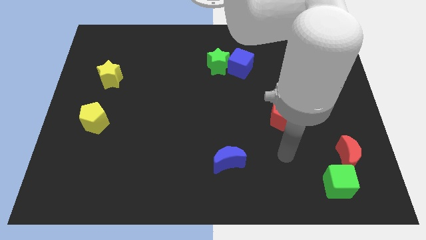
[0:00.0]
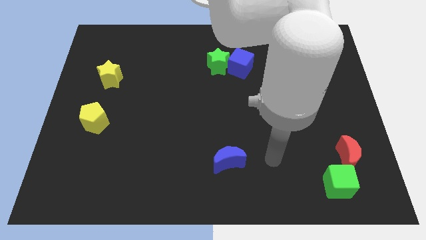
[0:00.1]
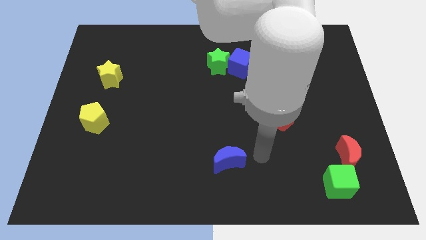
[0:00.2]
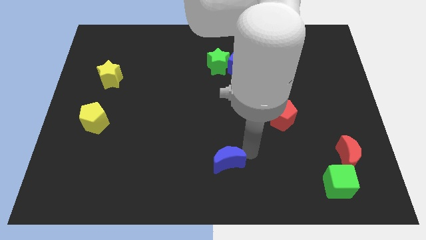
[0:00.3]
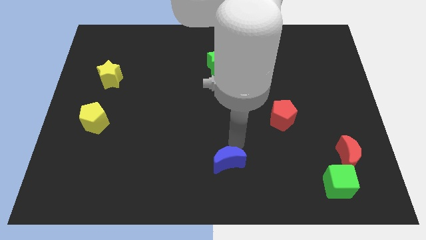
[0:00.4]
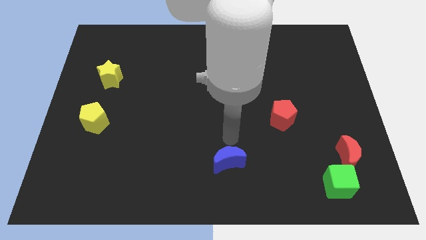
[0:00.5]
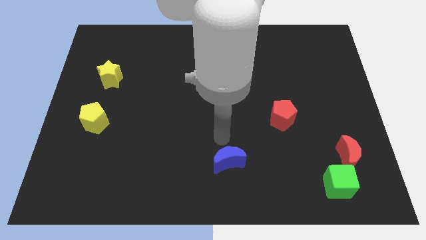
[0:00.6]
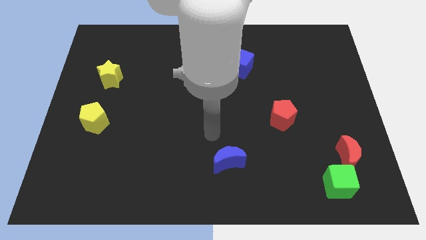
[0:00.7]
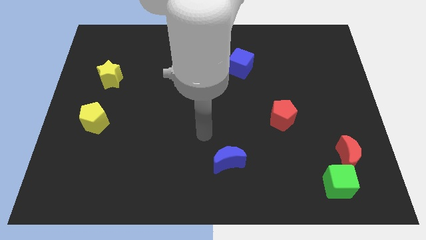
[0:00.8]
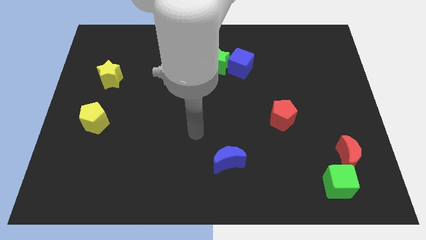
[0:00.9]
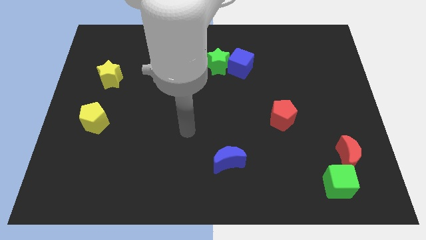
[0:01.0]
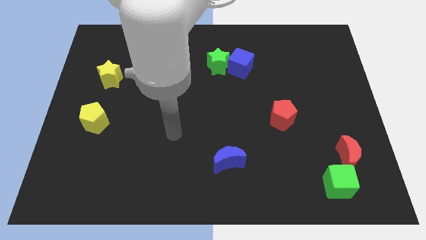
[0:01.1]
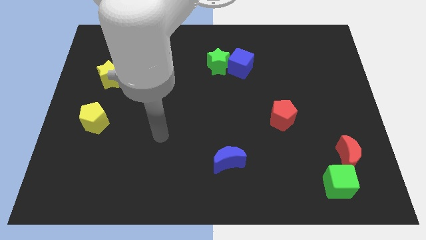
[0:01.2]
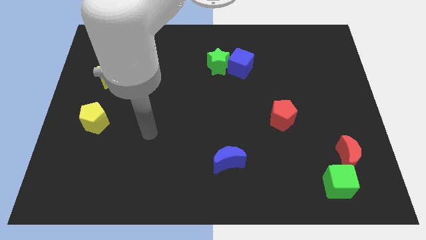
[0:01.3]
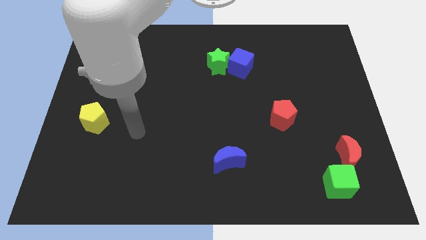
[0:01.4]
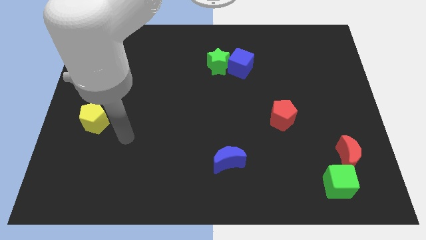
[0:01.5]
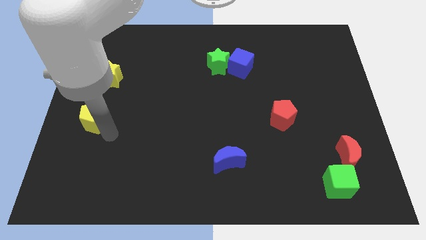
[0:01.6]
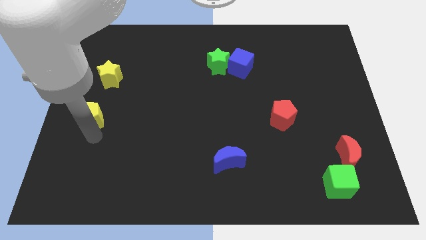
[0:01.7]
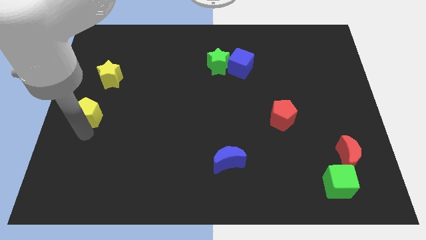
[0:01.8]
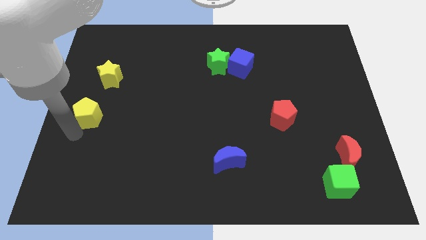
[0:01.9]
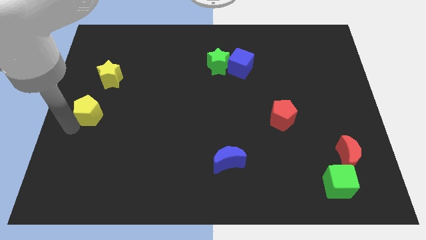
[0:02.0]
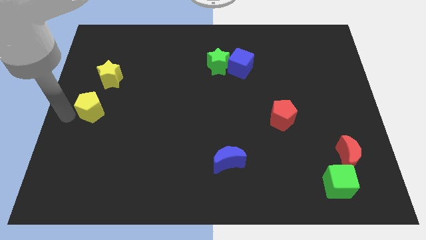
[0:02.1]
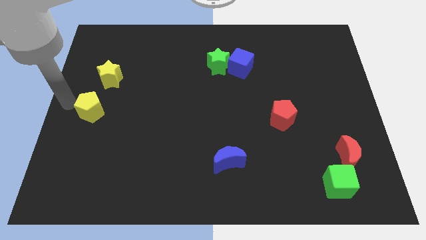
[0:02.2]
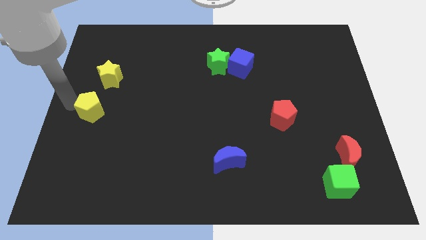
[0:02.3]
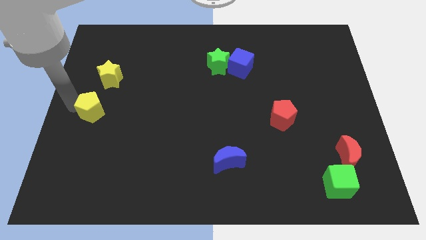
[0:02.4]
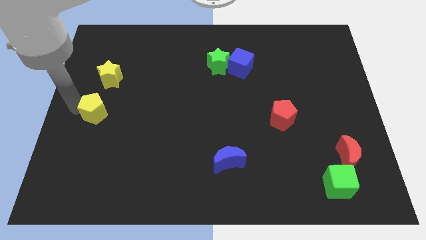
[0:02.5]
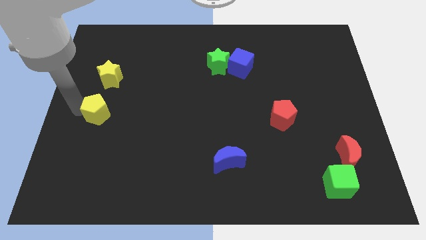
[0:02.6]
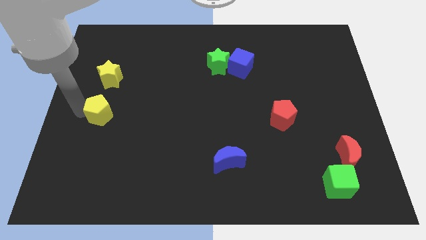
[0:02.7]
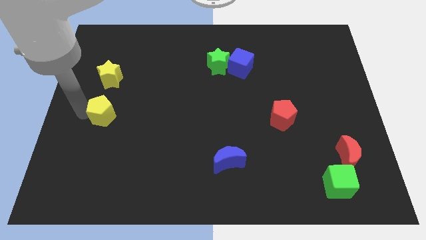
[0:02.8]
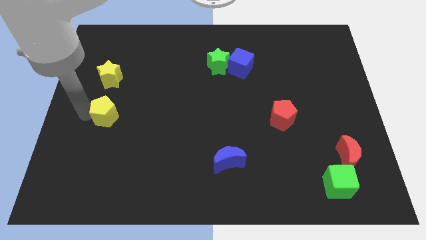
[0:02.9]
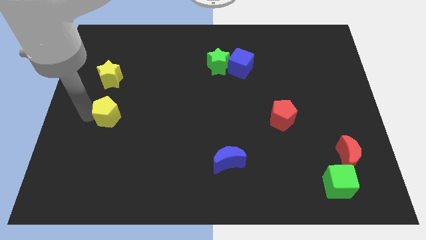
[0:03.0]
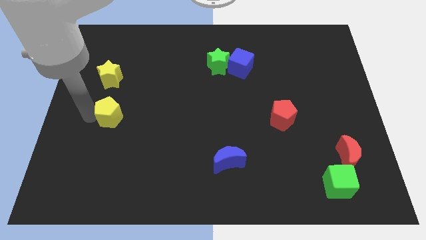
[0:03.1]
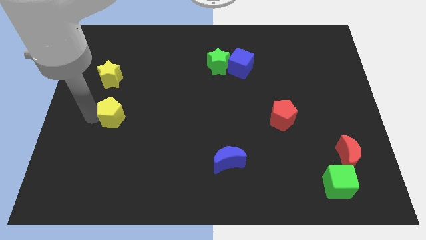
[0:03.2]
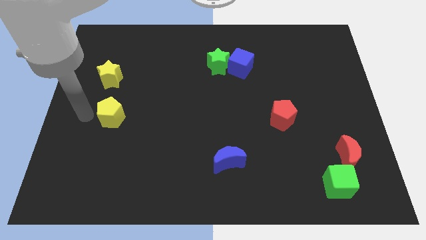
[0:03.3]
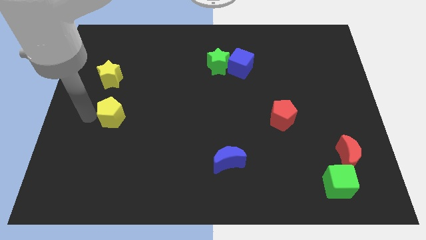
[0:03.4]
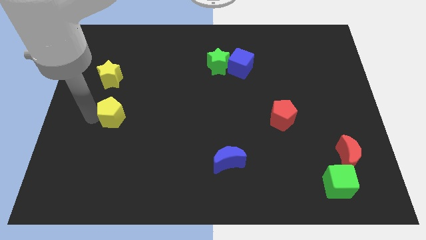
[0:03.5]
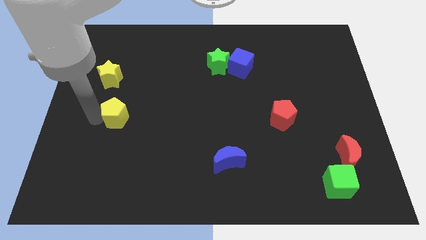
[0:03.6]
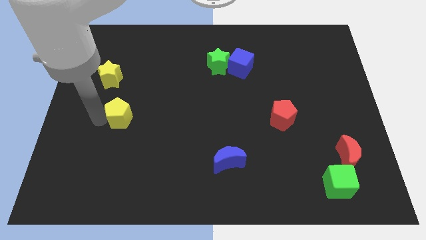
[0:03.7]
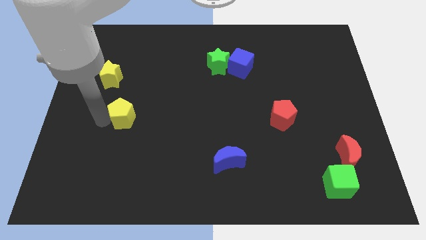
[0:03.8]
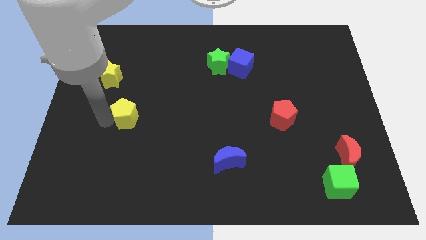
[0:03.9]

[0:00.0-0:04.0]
push the yellow pentagon to the right a little bit

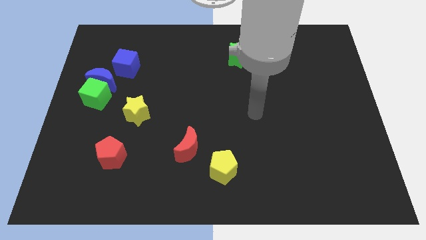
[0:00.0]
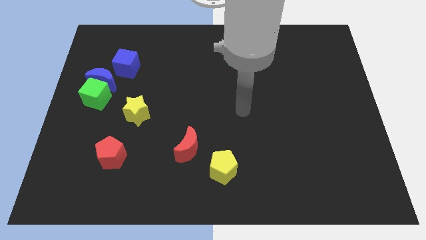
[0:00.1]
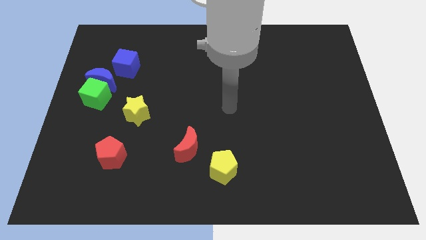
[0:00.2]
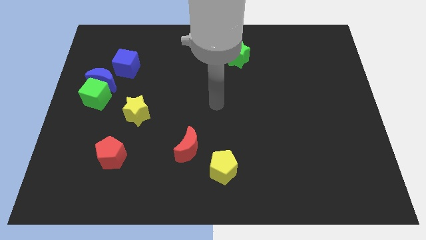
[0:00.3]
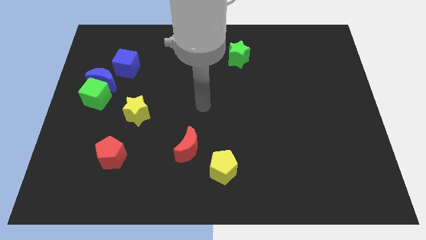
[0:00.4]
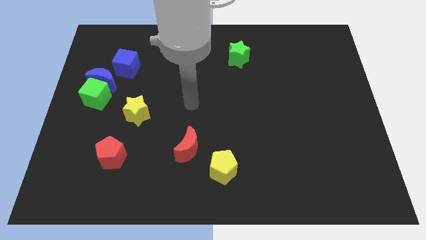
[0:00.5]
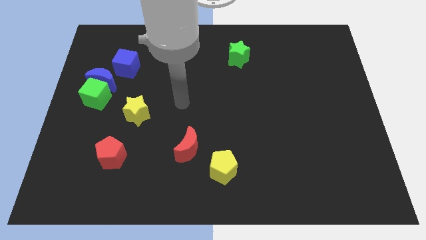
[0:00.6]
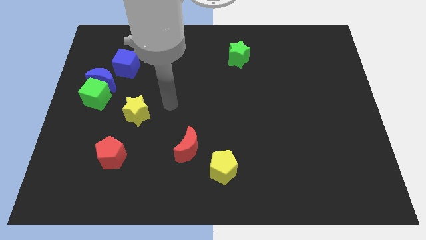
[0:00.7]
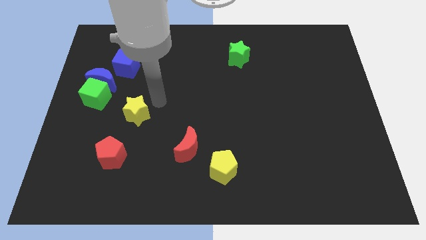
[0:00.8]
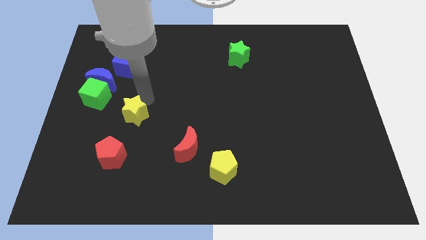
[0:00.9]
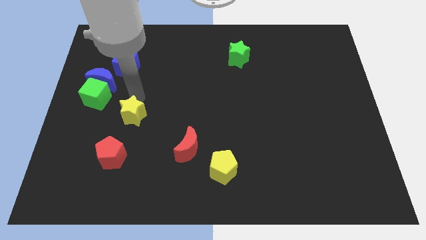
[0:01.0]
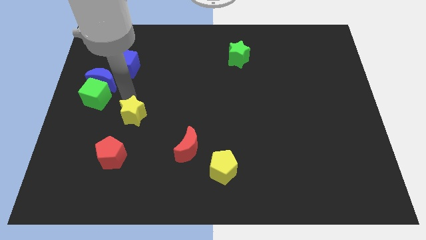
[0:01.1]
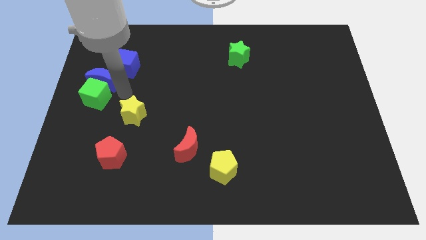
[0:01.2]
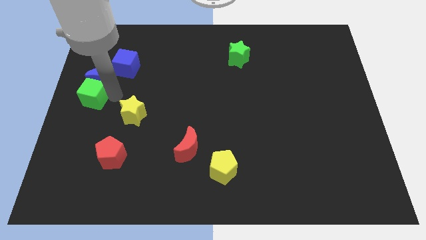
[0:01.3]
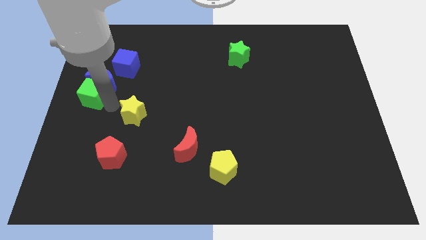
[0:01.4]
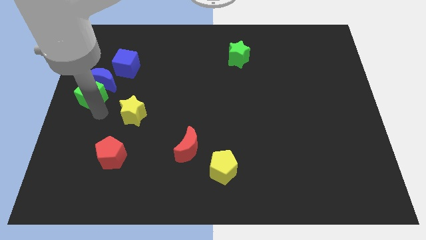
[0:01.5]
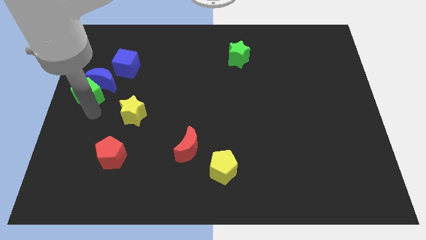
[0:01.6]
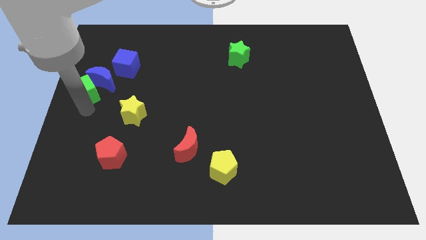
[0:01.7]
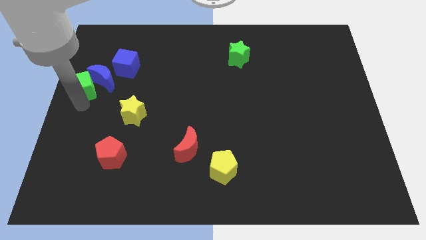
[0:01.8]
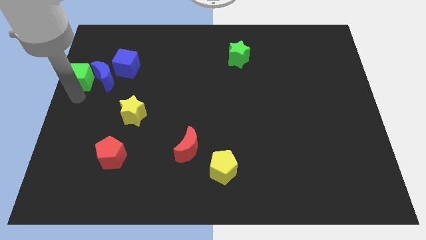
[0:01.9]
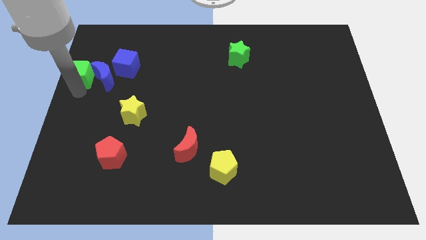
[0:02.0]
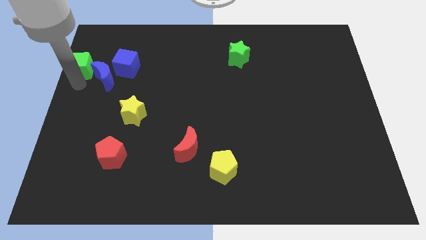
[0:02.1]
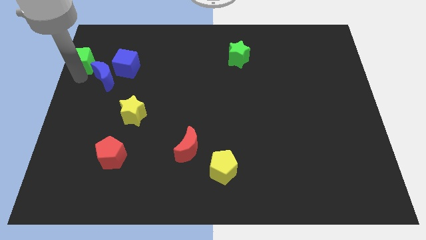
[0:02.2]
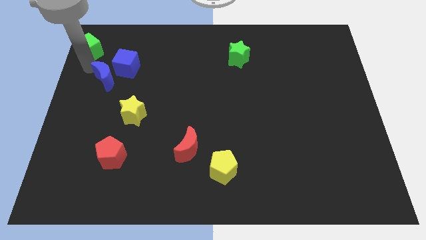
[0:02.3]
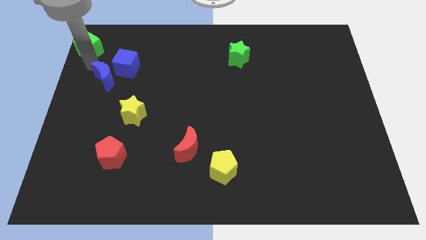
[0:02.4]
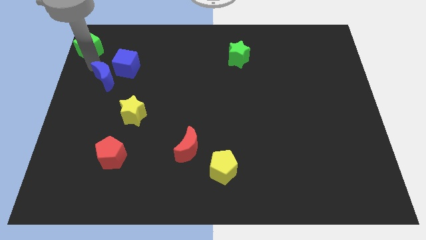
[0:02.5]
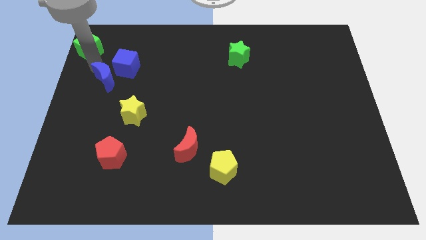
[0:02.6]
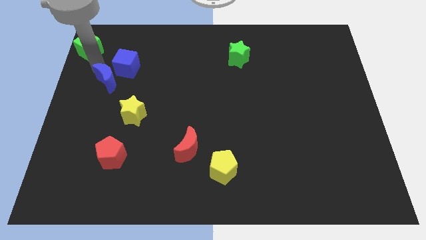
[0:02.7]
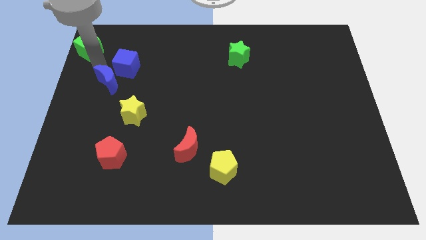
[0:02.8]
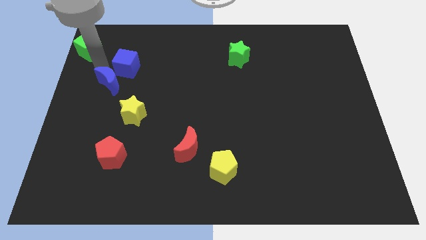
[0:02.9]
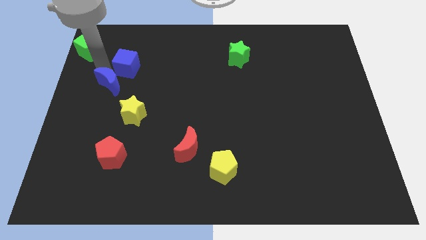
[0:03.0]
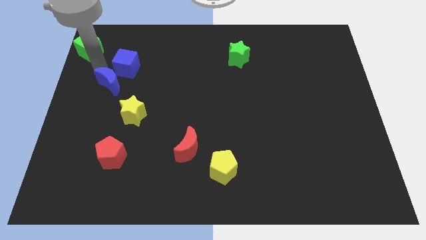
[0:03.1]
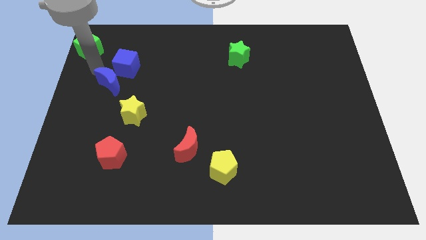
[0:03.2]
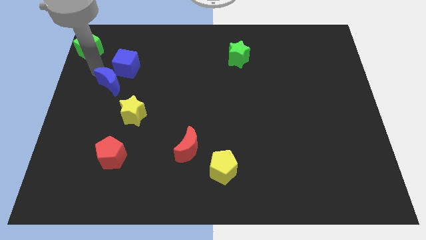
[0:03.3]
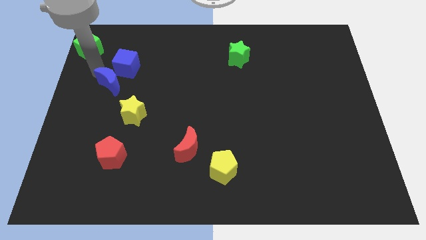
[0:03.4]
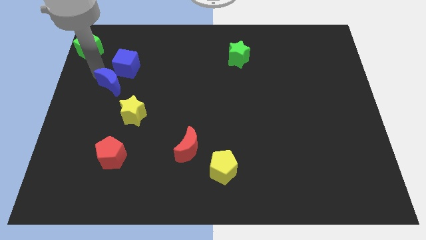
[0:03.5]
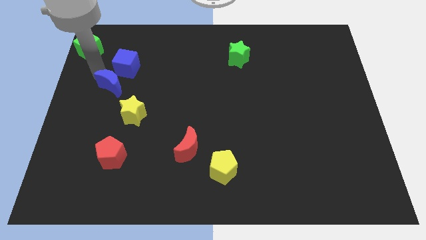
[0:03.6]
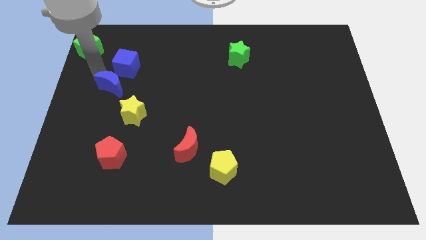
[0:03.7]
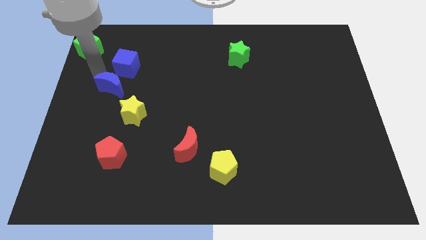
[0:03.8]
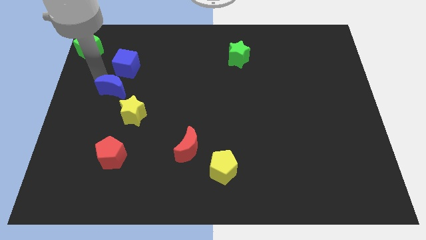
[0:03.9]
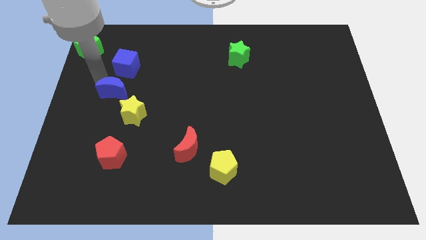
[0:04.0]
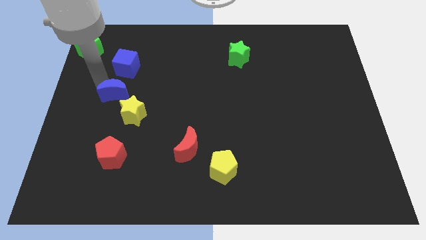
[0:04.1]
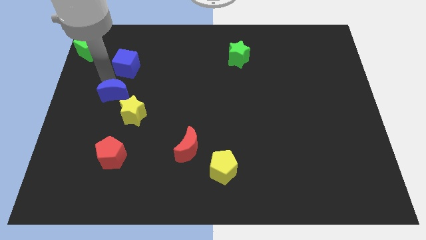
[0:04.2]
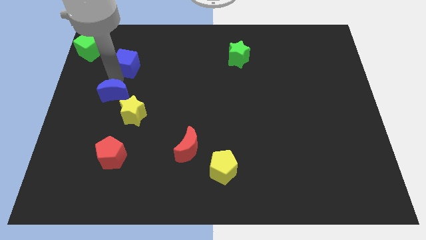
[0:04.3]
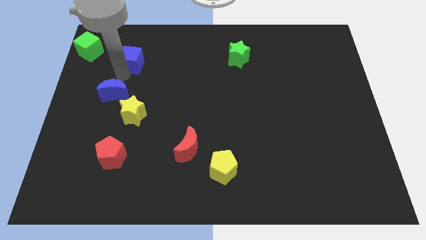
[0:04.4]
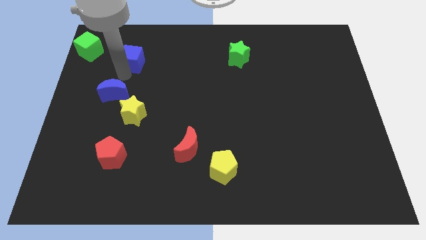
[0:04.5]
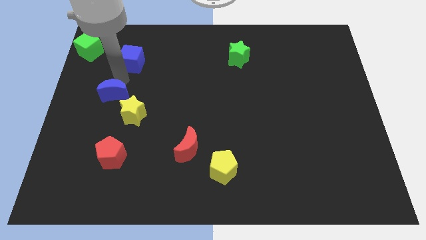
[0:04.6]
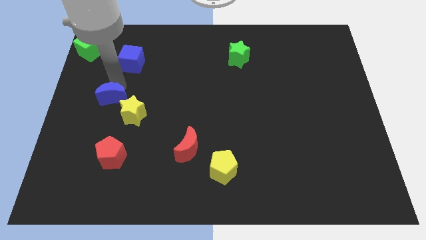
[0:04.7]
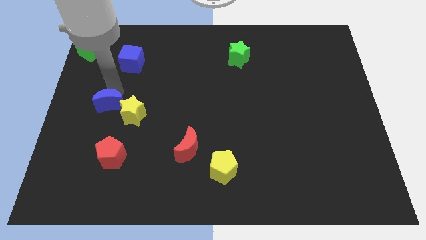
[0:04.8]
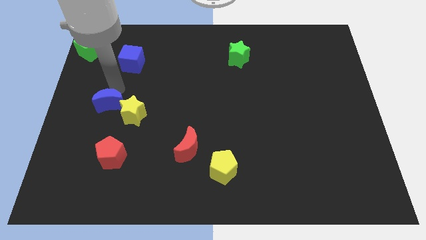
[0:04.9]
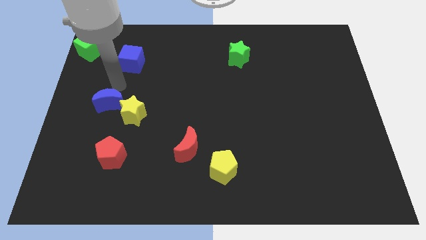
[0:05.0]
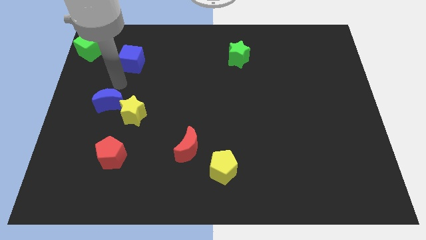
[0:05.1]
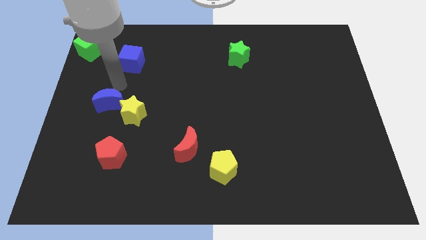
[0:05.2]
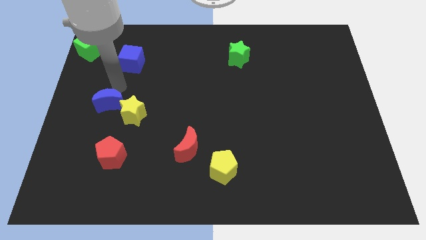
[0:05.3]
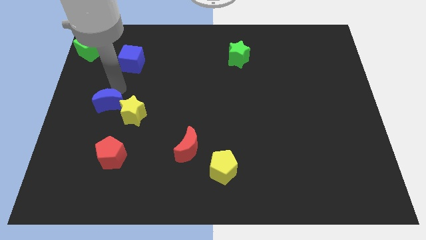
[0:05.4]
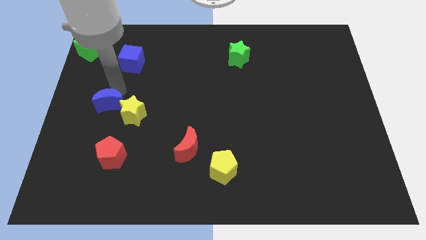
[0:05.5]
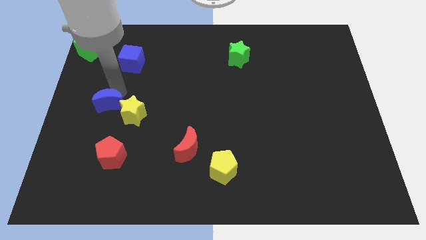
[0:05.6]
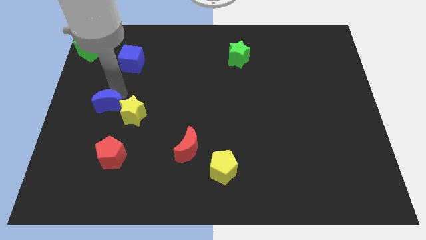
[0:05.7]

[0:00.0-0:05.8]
slightly move the blue moon down
